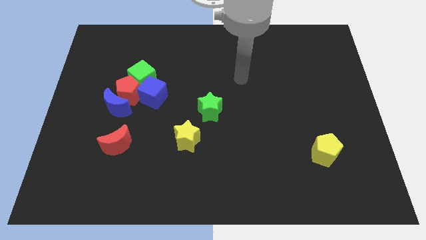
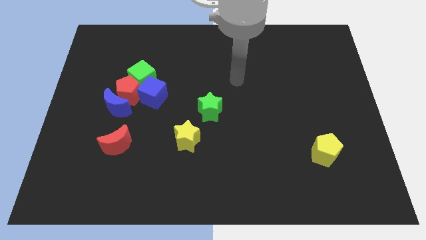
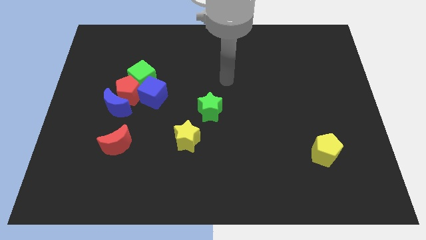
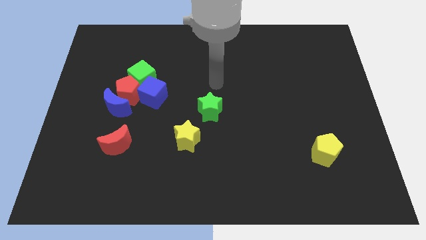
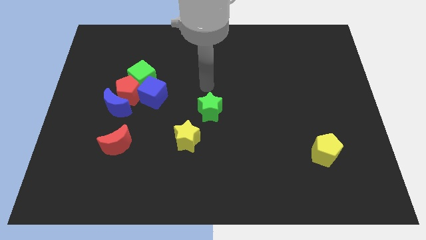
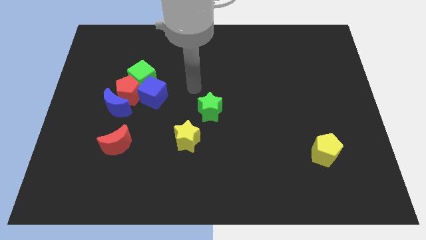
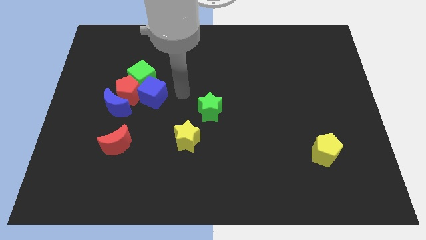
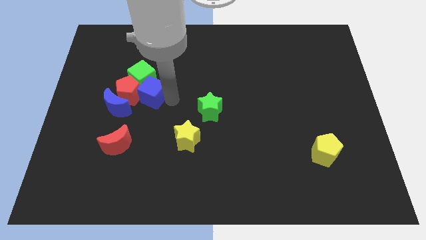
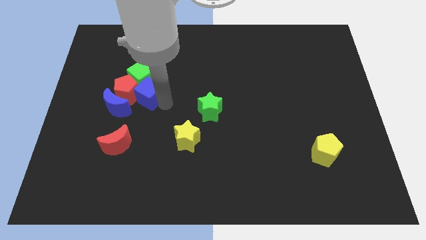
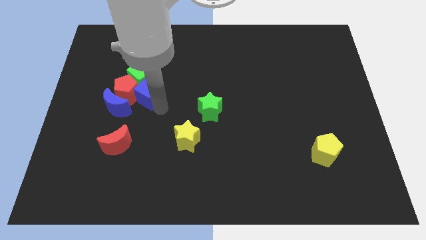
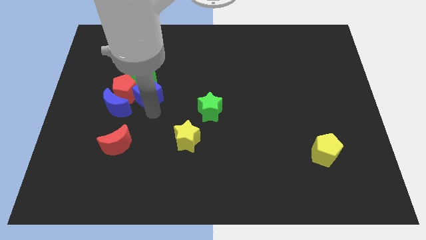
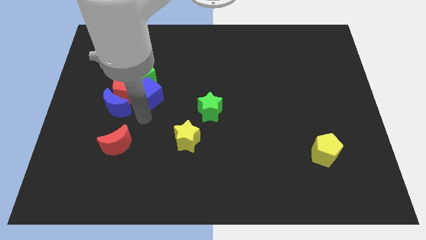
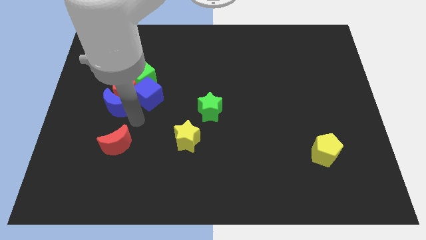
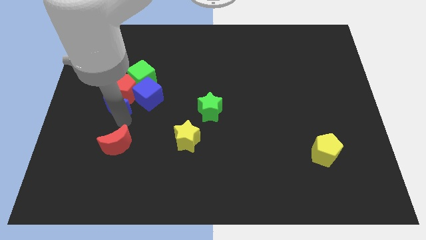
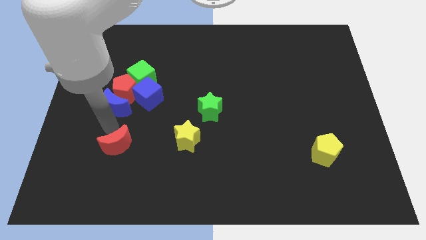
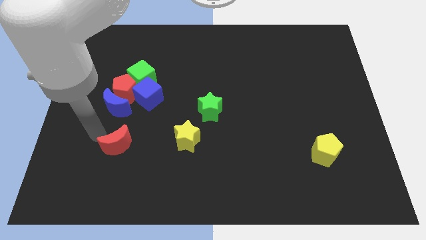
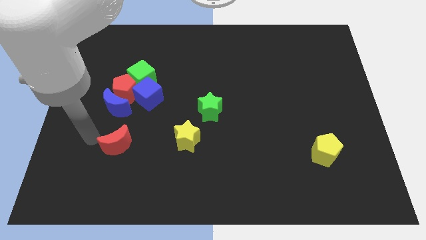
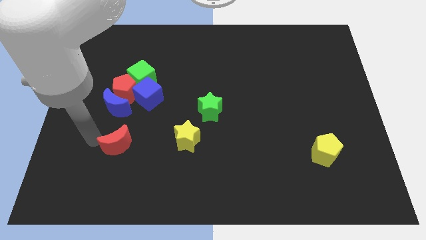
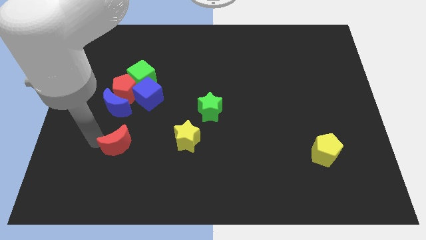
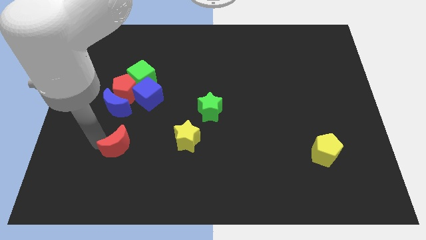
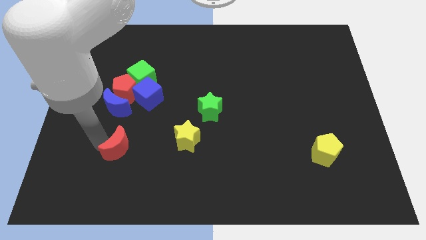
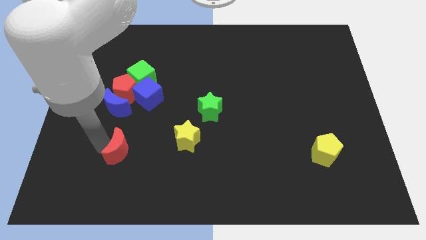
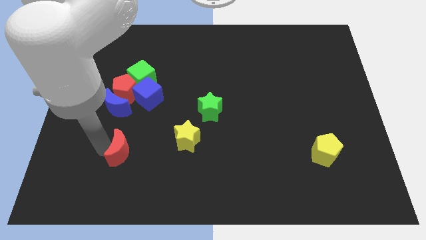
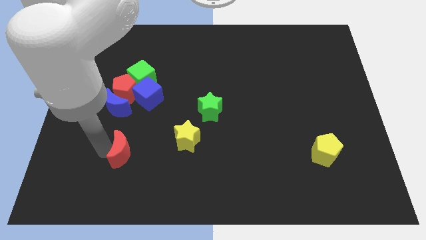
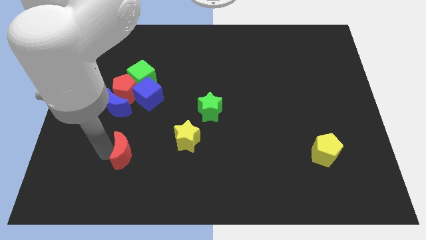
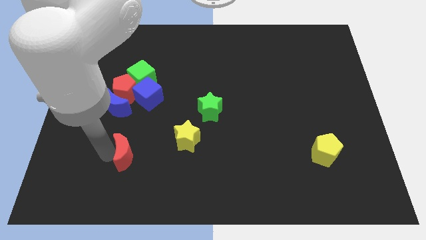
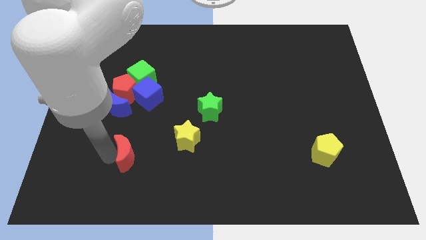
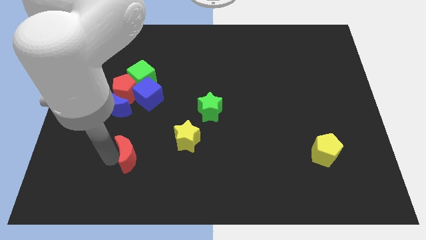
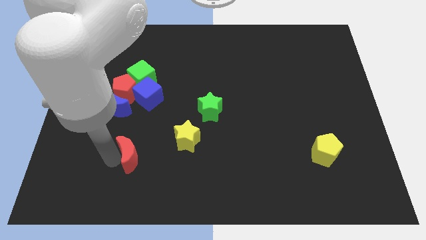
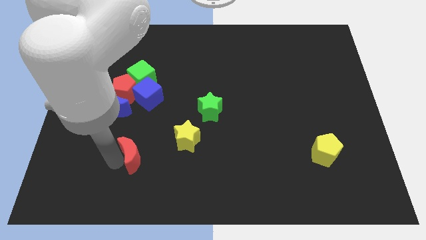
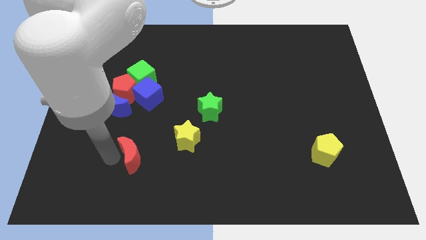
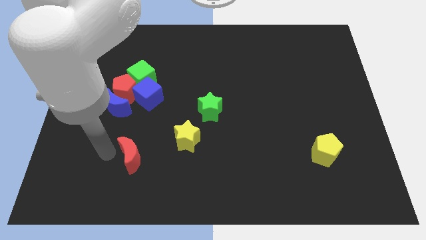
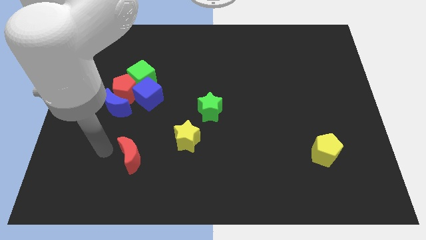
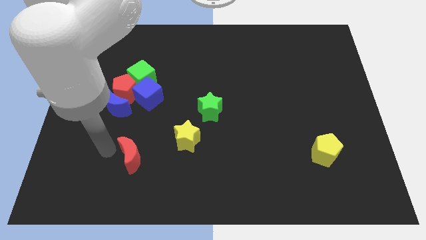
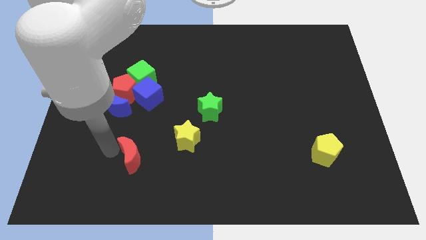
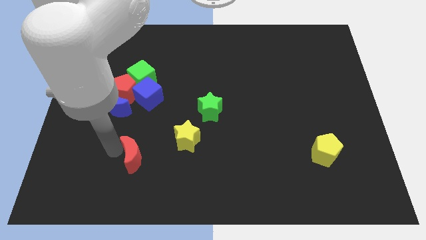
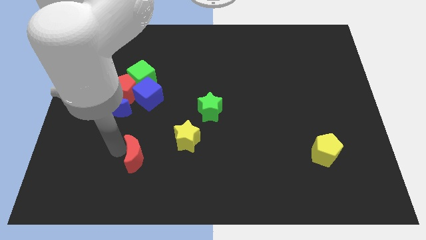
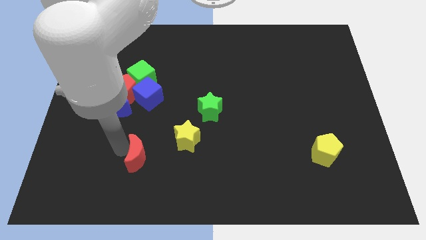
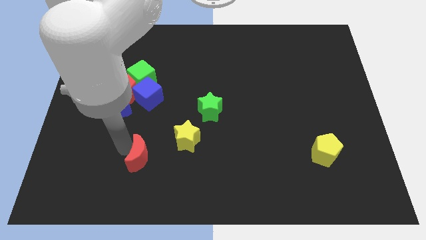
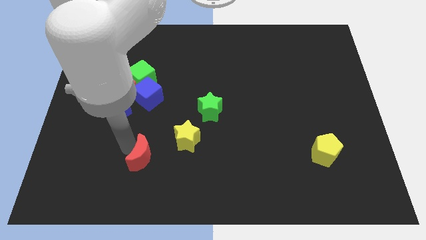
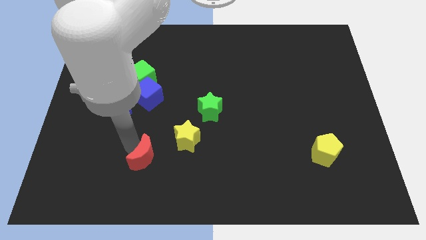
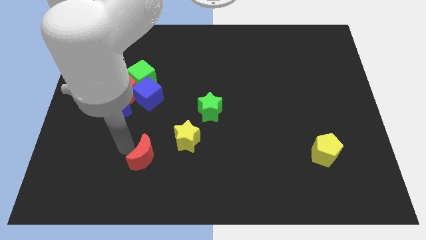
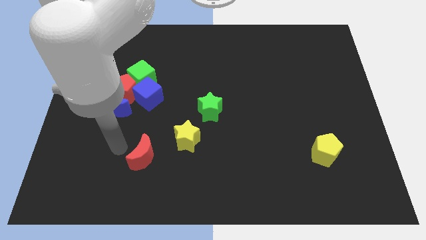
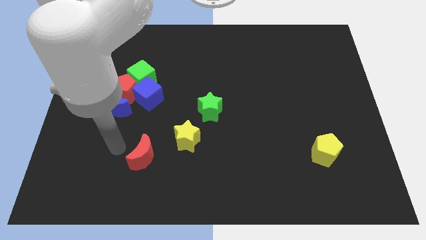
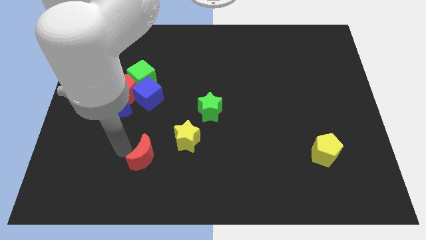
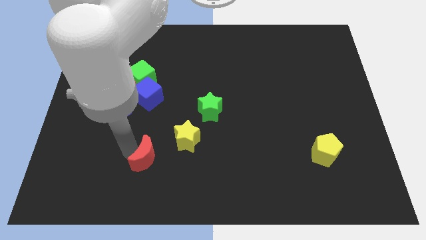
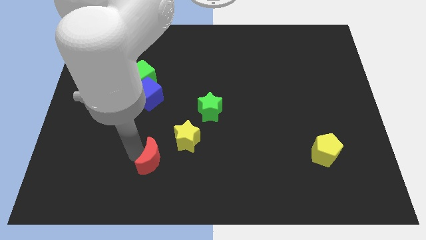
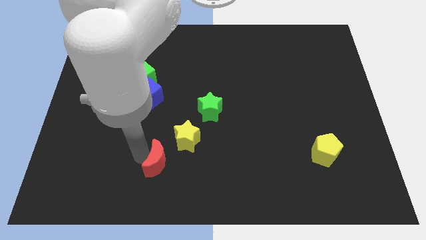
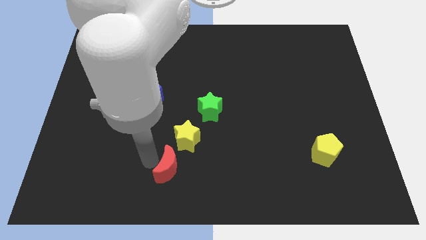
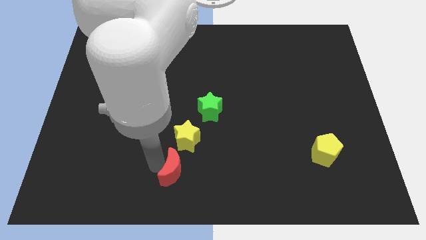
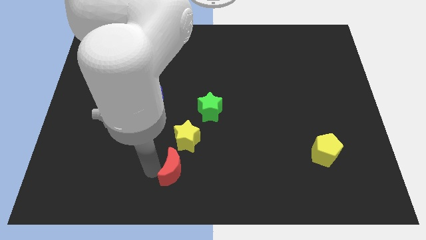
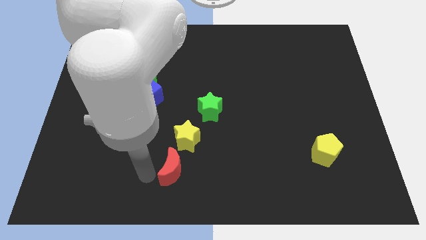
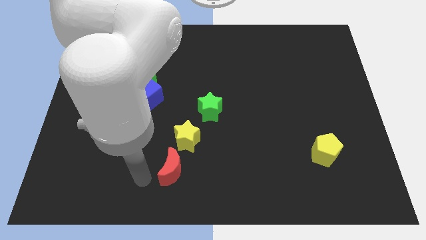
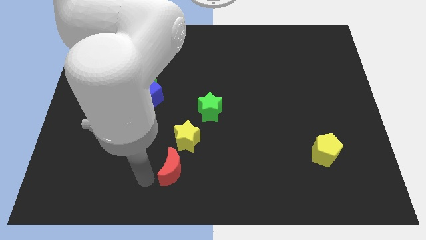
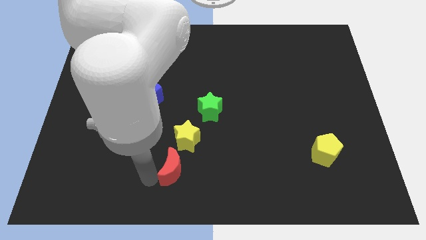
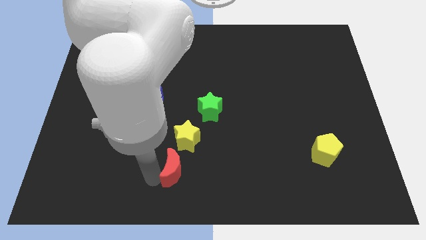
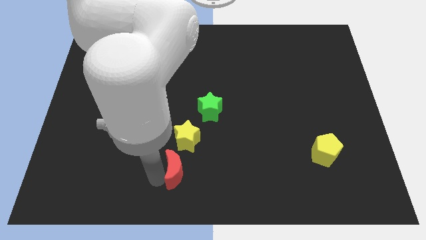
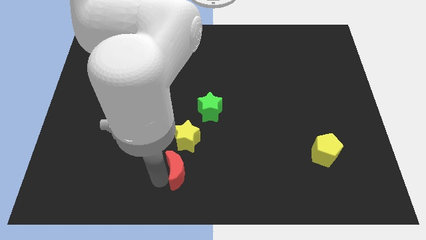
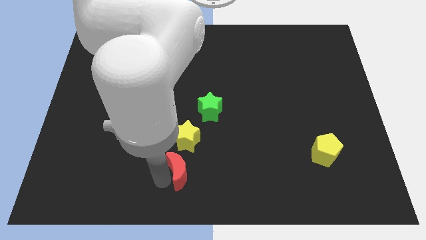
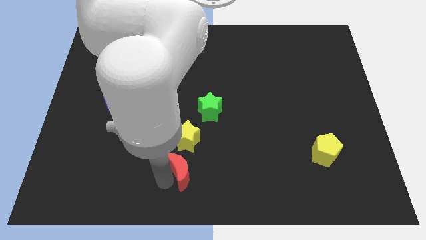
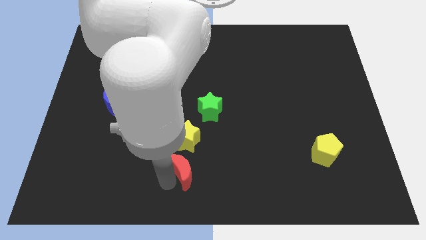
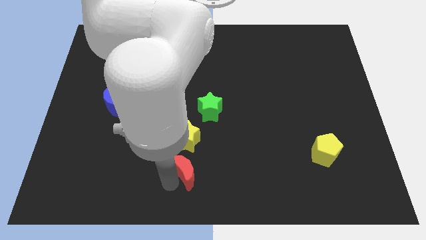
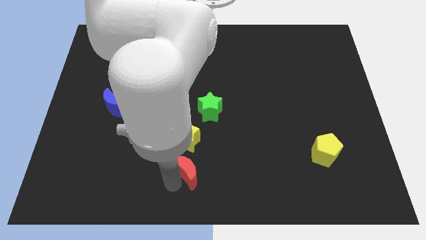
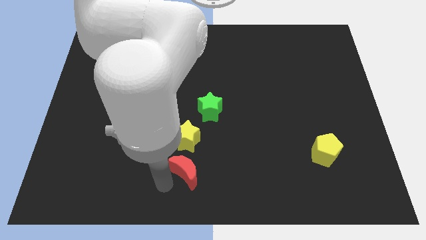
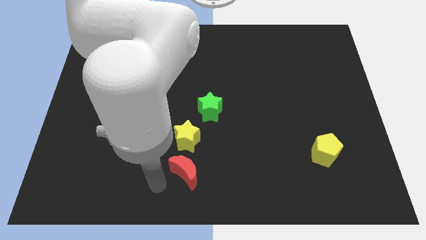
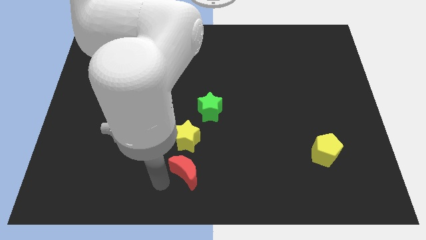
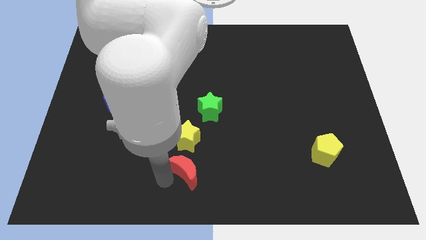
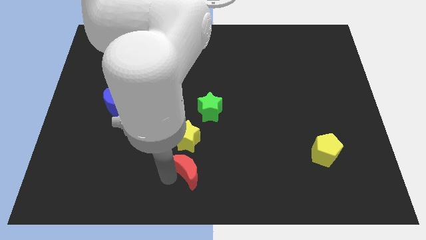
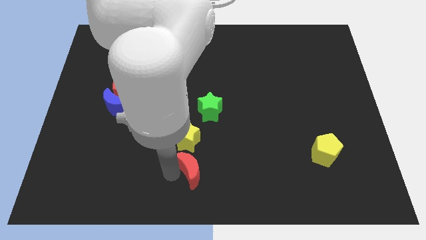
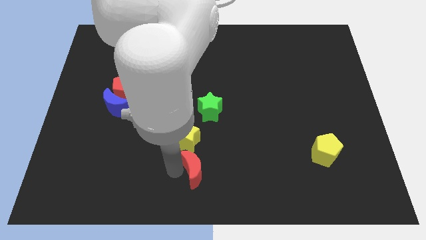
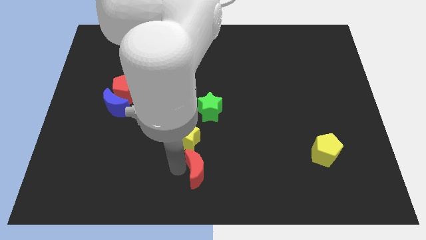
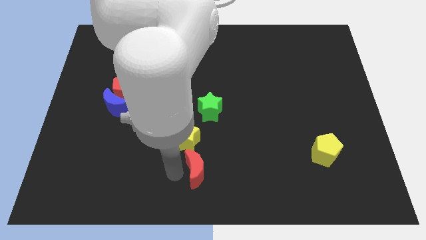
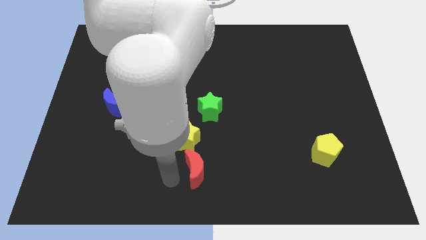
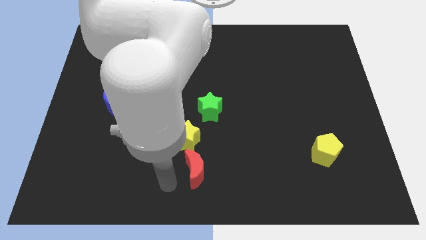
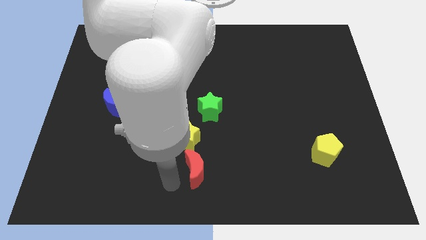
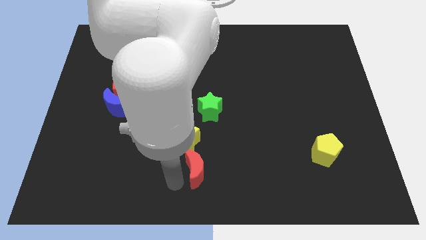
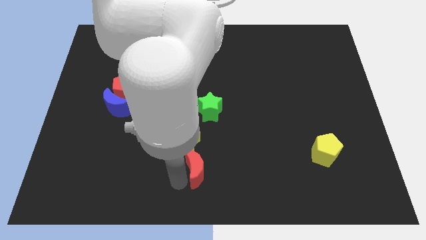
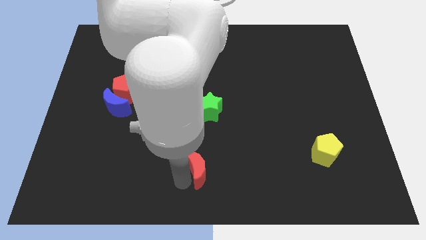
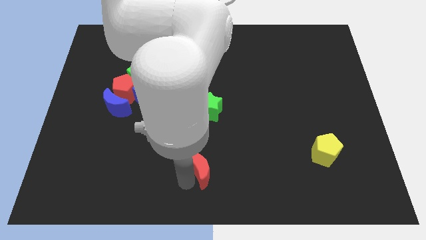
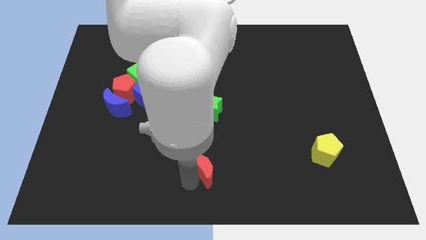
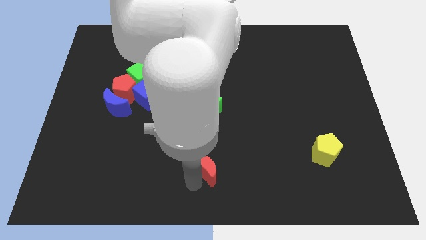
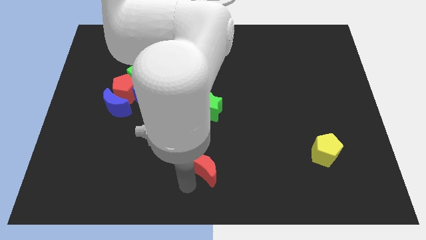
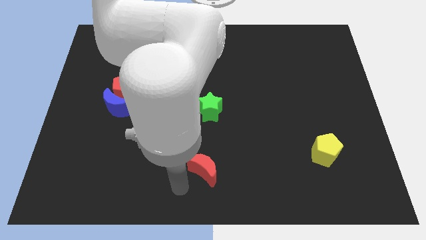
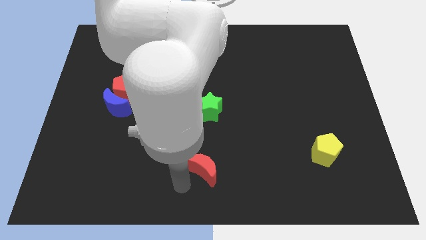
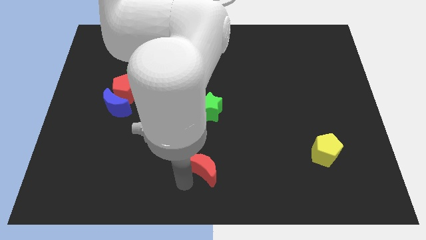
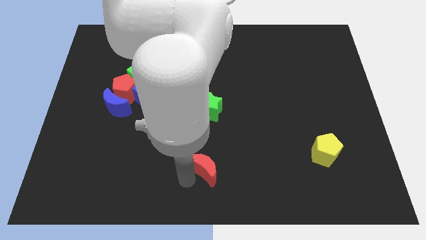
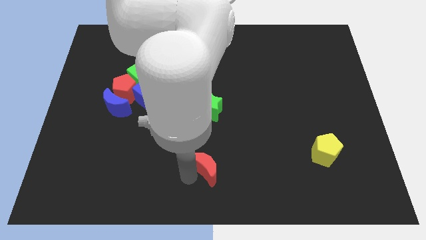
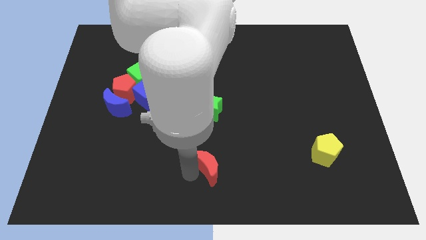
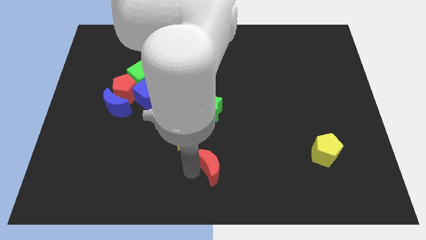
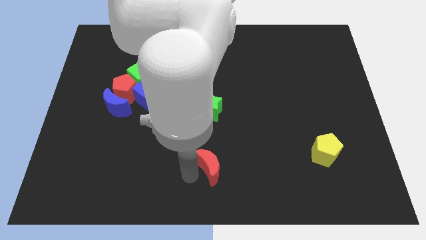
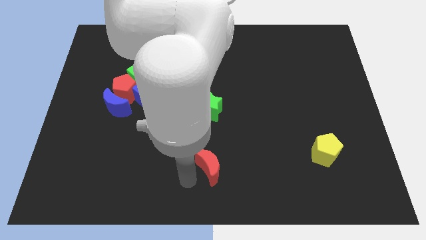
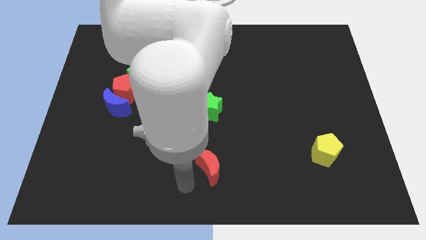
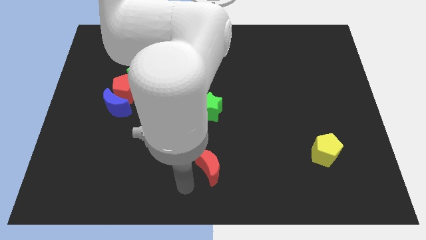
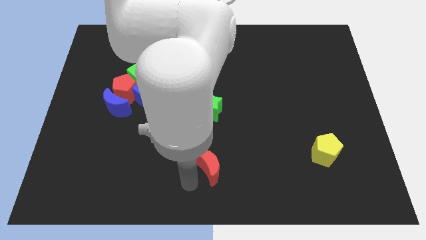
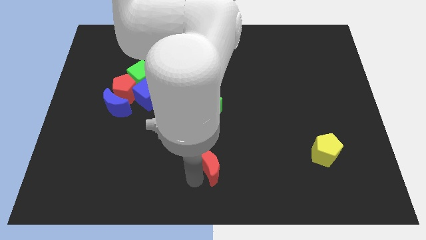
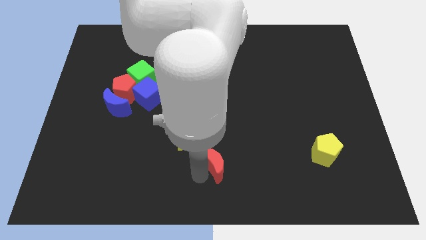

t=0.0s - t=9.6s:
push the red moon right
